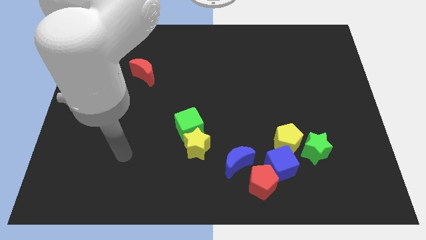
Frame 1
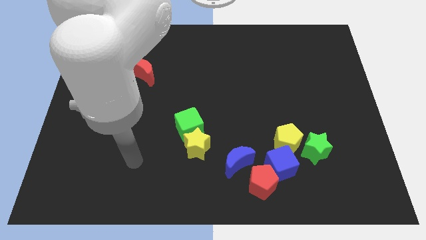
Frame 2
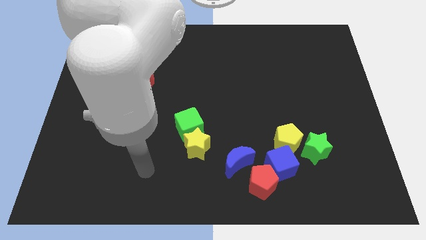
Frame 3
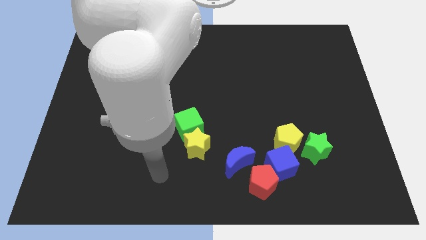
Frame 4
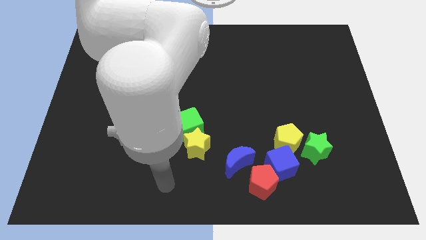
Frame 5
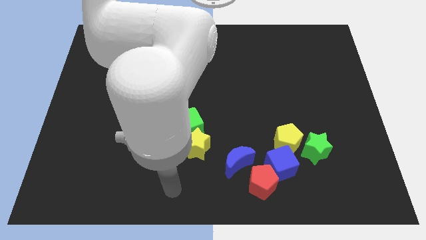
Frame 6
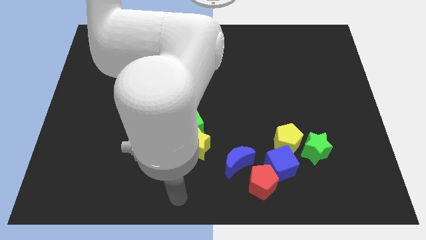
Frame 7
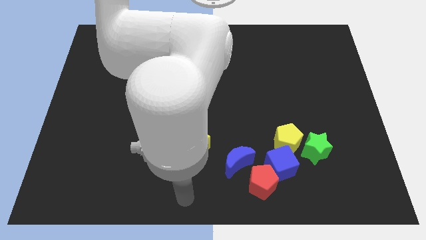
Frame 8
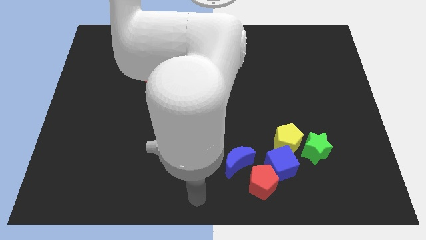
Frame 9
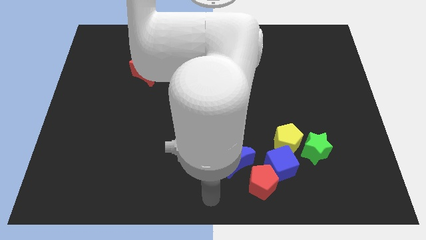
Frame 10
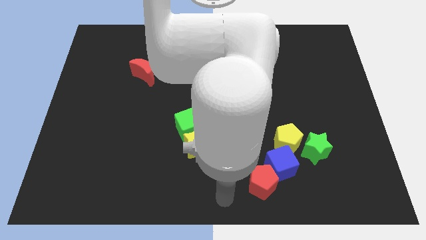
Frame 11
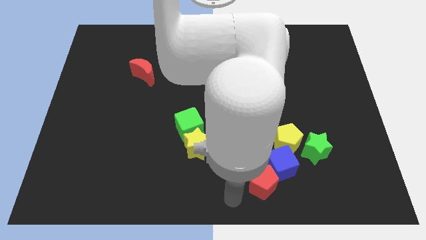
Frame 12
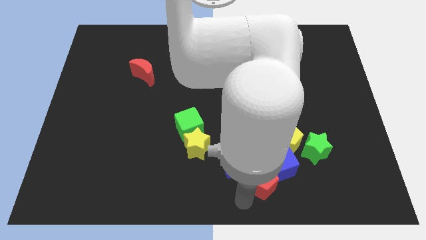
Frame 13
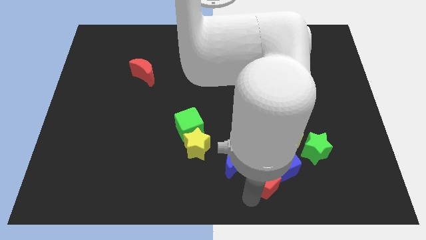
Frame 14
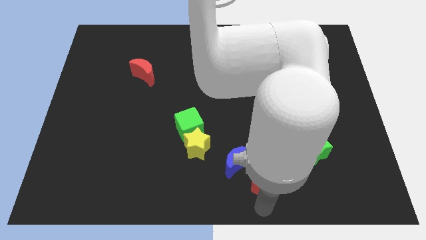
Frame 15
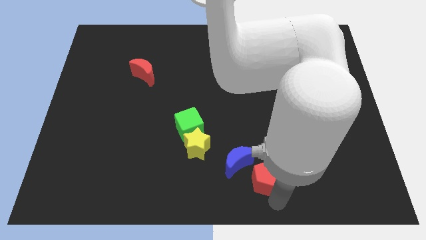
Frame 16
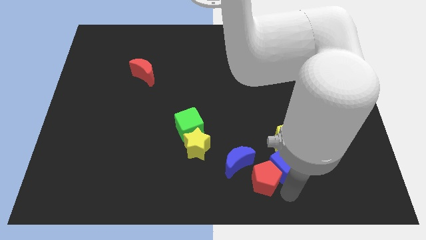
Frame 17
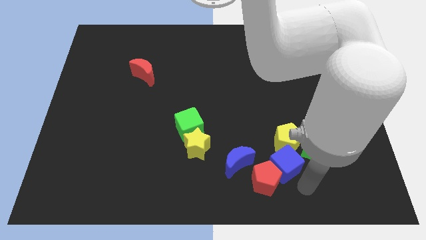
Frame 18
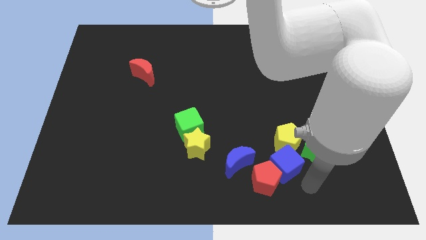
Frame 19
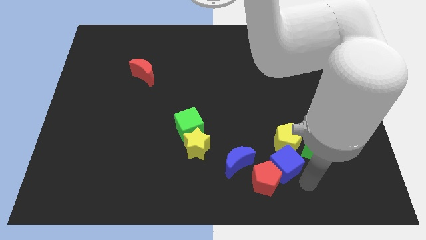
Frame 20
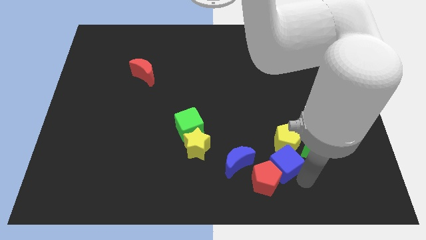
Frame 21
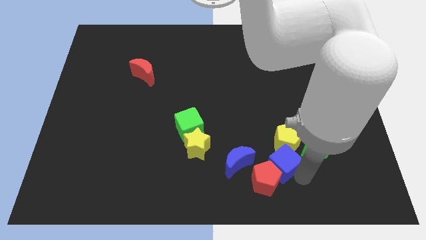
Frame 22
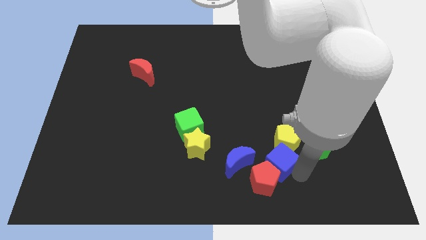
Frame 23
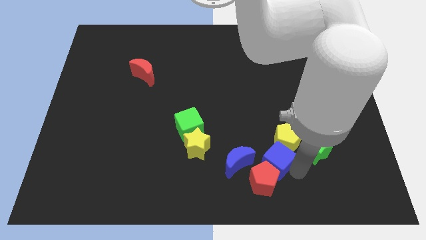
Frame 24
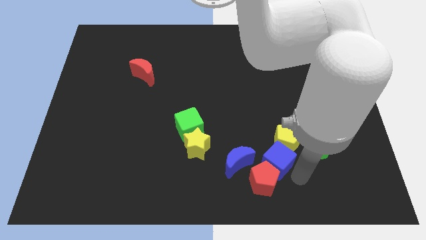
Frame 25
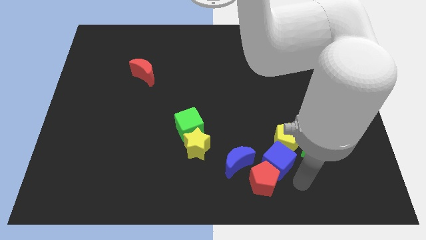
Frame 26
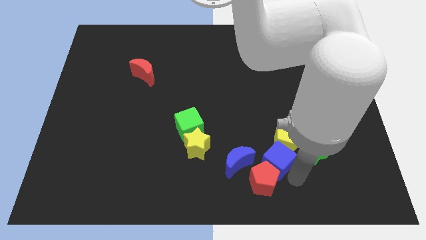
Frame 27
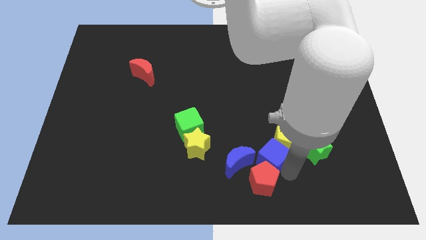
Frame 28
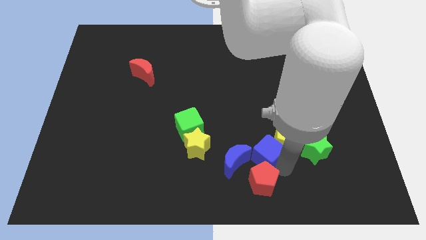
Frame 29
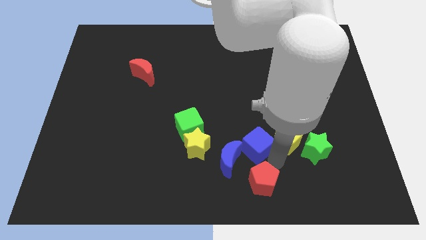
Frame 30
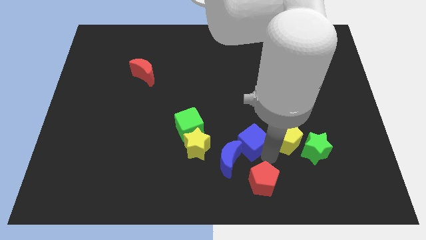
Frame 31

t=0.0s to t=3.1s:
slightly slide the blue cube up and left

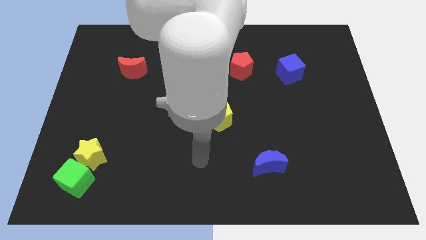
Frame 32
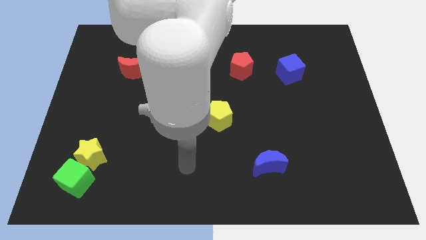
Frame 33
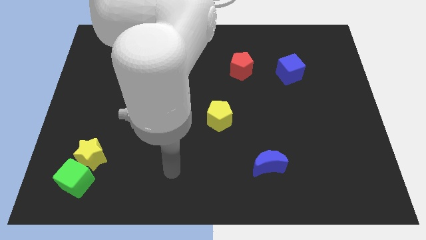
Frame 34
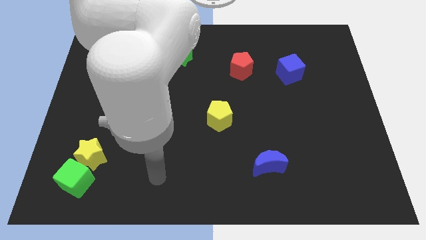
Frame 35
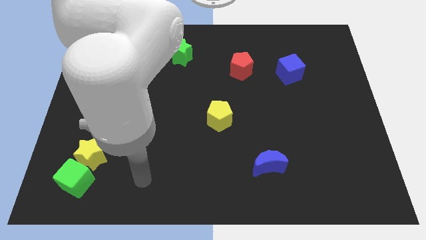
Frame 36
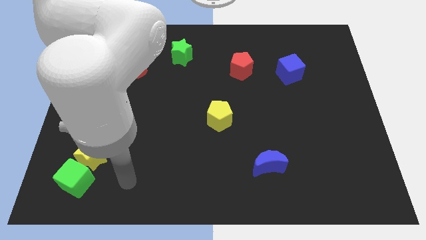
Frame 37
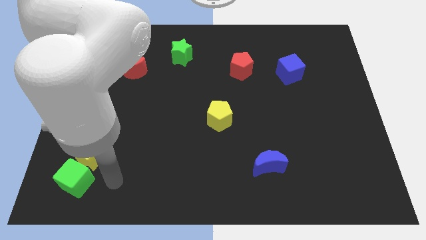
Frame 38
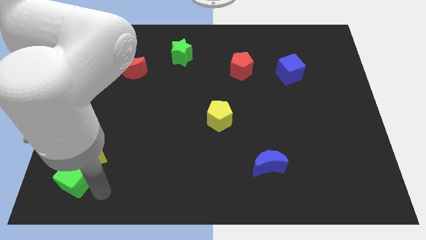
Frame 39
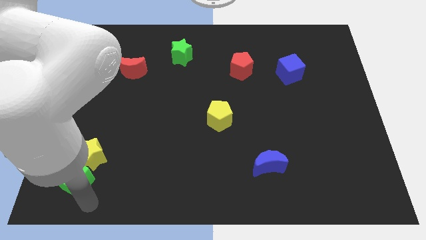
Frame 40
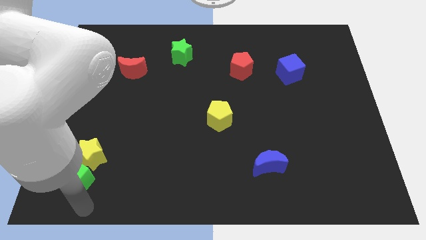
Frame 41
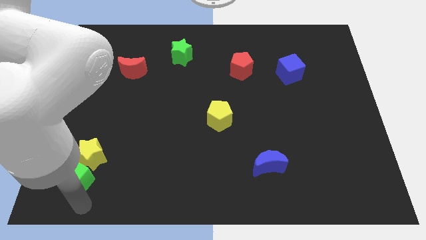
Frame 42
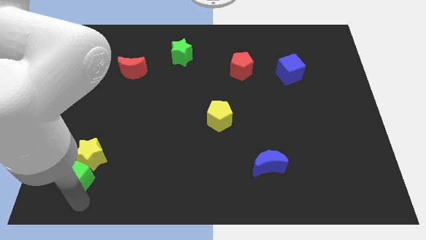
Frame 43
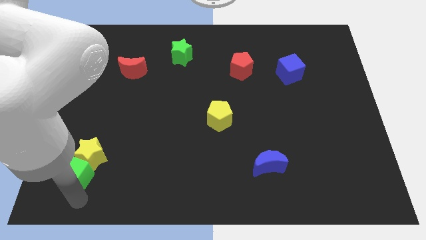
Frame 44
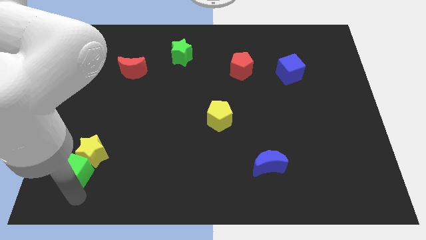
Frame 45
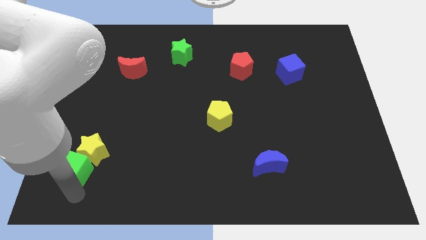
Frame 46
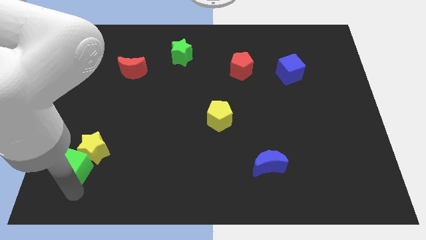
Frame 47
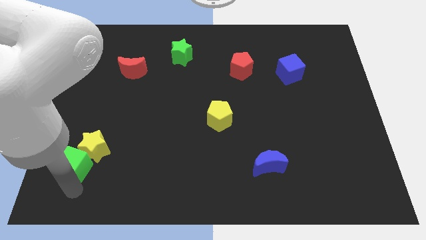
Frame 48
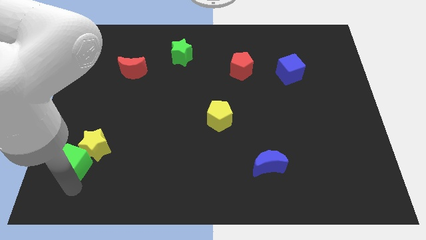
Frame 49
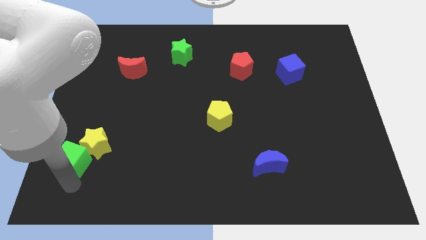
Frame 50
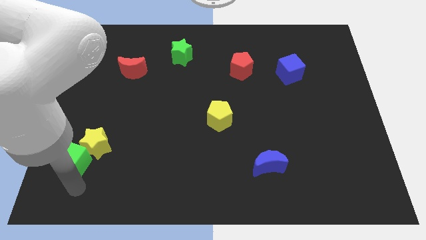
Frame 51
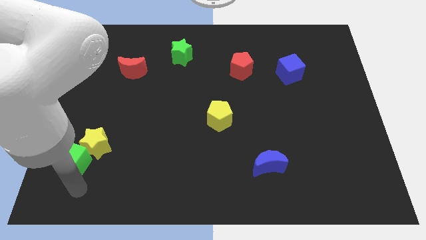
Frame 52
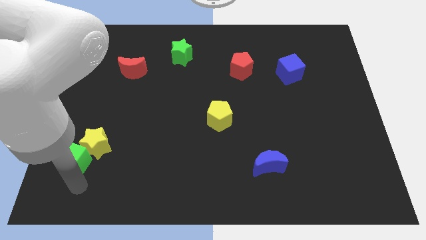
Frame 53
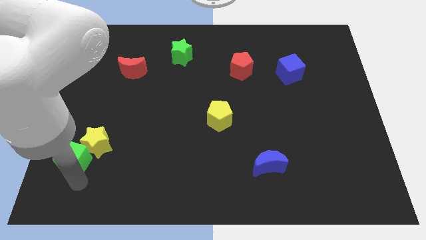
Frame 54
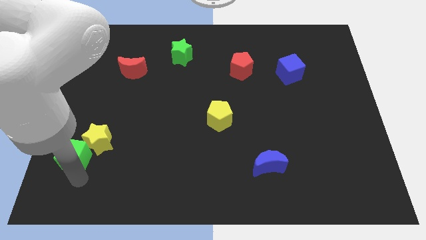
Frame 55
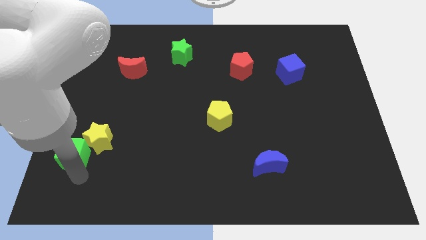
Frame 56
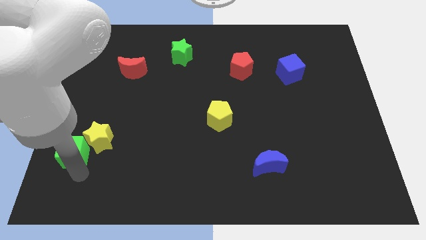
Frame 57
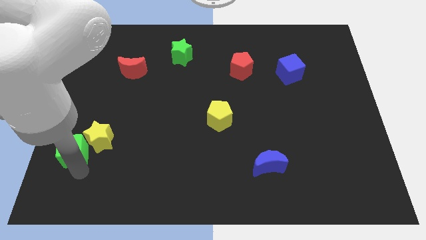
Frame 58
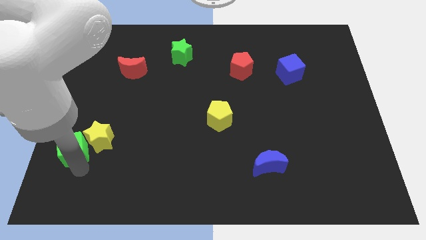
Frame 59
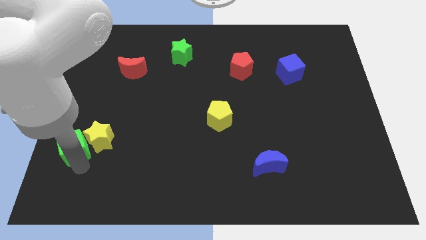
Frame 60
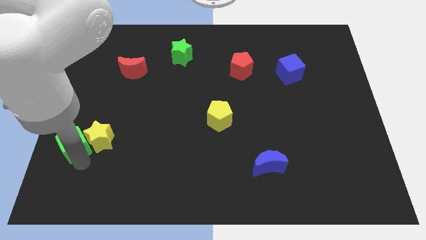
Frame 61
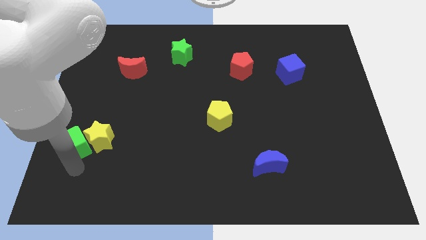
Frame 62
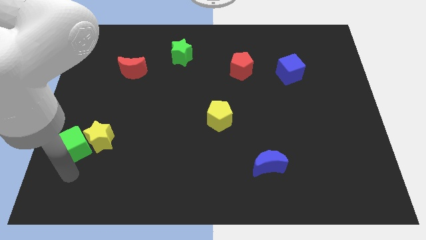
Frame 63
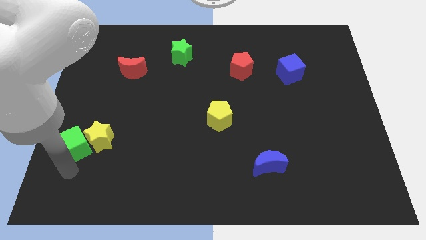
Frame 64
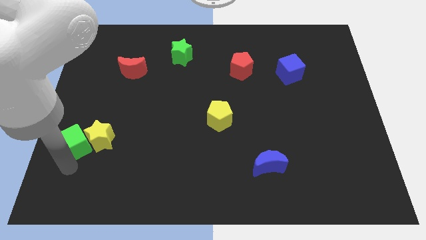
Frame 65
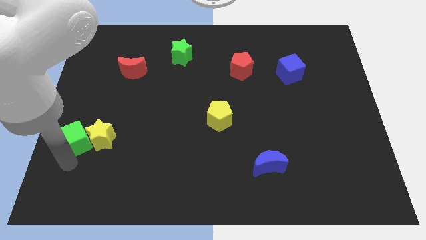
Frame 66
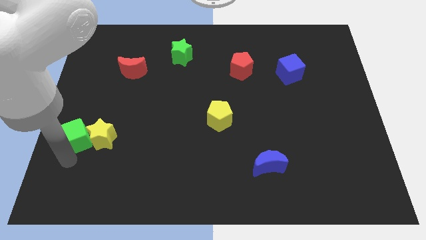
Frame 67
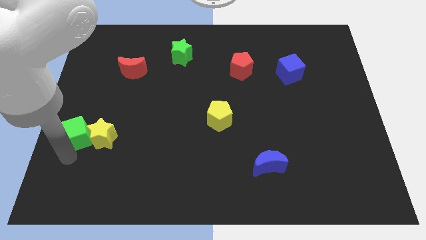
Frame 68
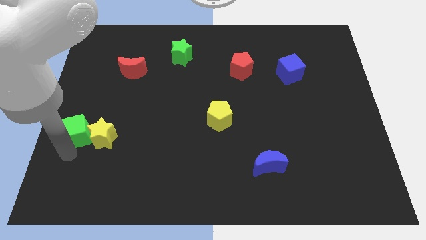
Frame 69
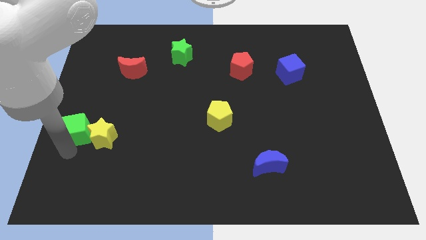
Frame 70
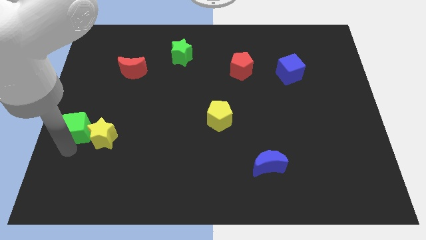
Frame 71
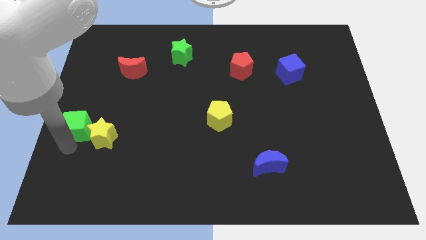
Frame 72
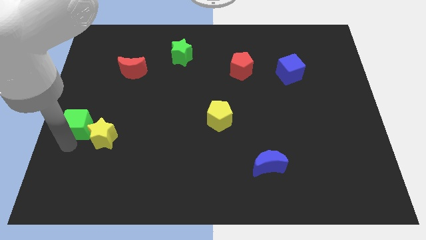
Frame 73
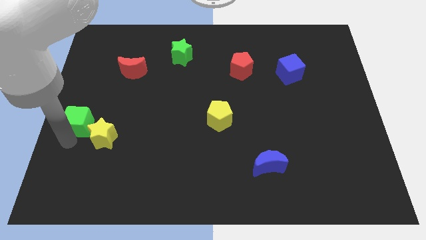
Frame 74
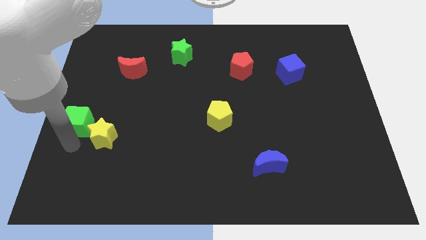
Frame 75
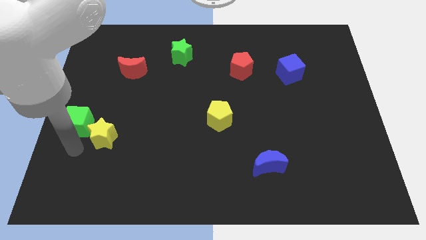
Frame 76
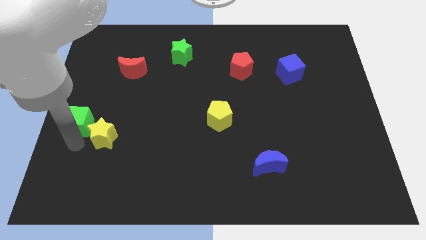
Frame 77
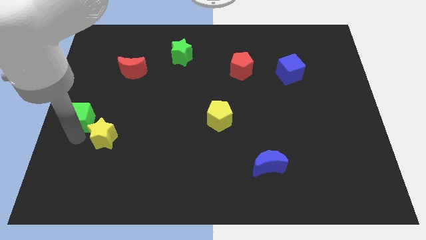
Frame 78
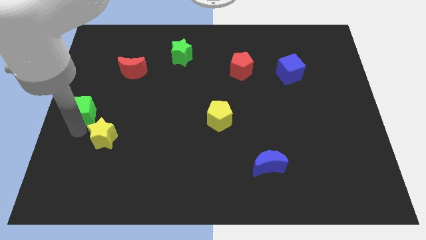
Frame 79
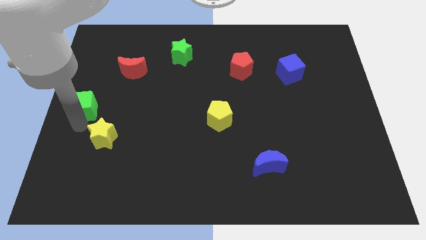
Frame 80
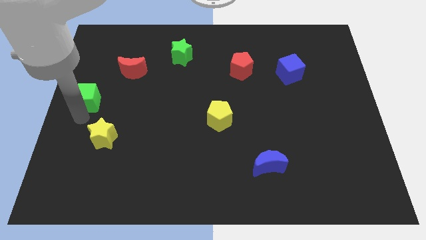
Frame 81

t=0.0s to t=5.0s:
push the green cube upwards
